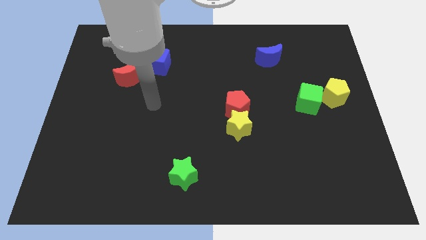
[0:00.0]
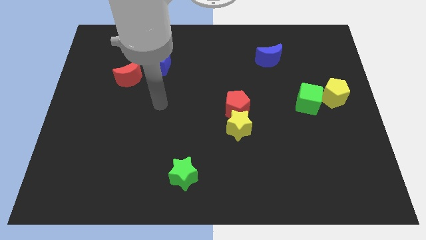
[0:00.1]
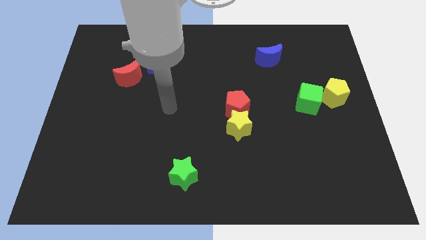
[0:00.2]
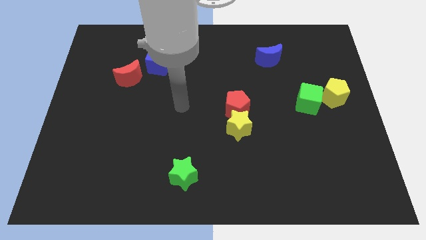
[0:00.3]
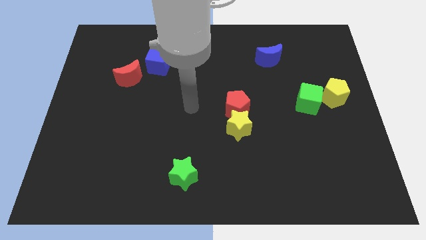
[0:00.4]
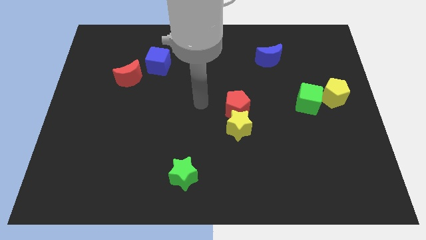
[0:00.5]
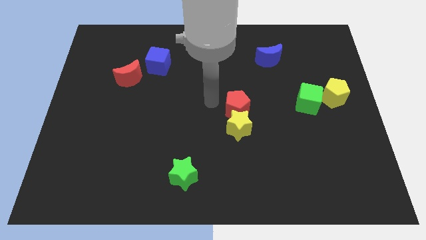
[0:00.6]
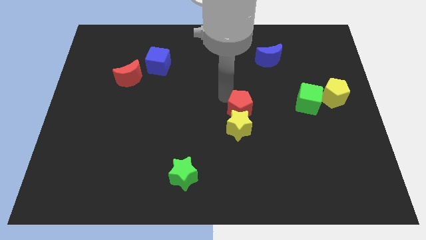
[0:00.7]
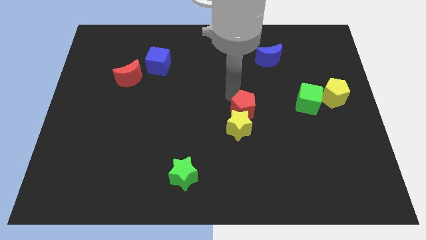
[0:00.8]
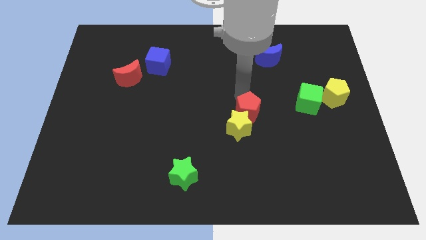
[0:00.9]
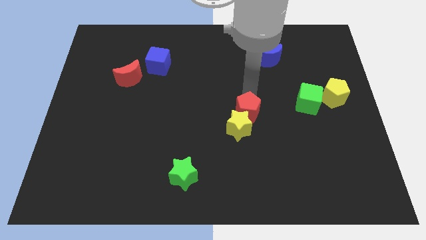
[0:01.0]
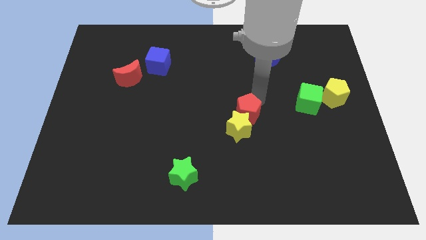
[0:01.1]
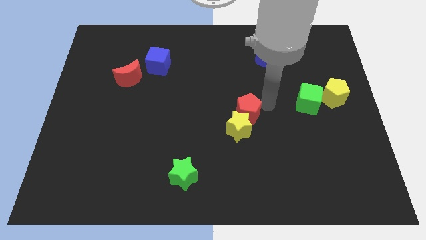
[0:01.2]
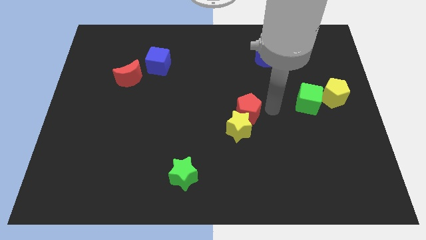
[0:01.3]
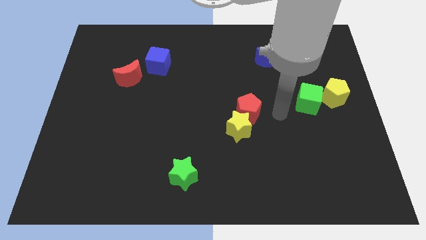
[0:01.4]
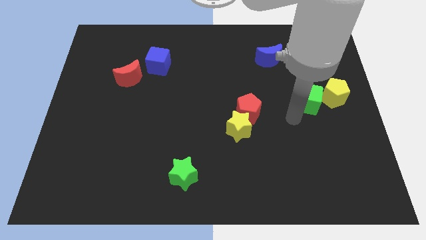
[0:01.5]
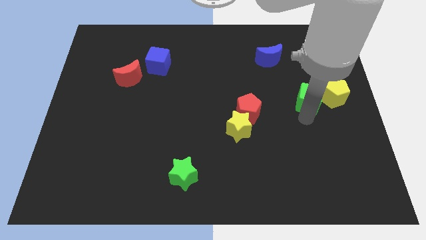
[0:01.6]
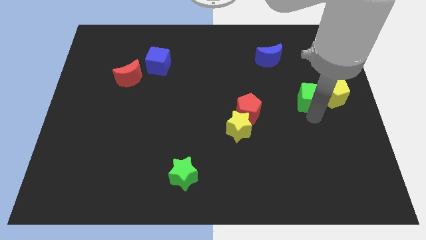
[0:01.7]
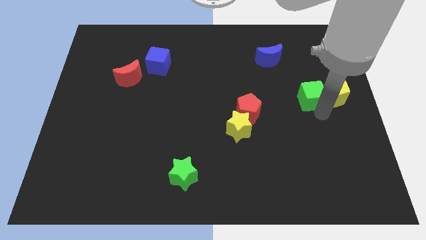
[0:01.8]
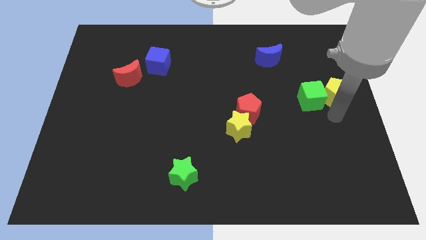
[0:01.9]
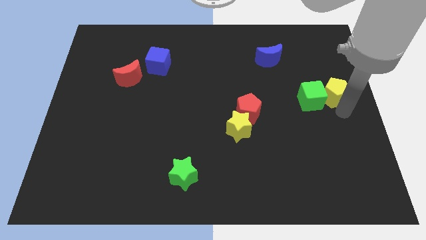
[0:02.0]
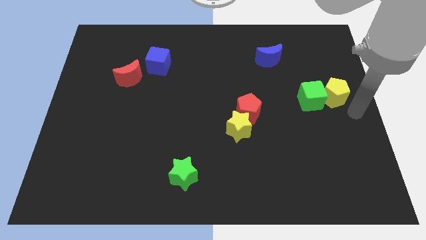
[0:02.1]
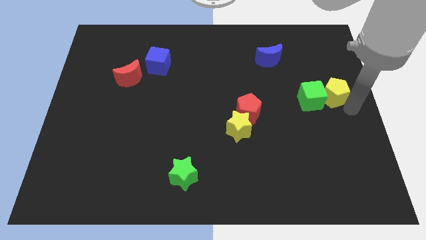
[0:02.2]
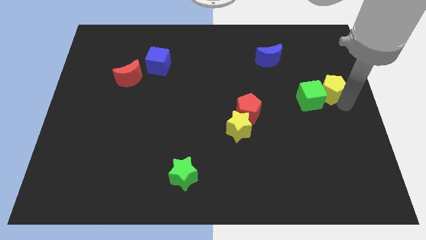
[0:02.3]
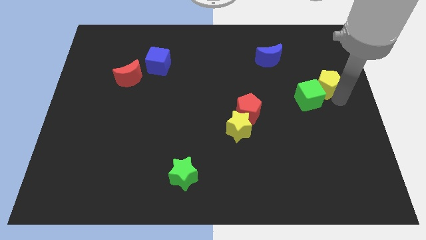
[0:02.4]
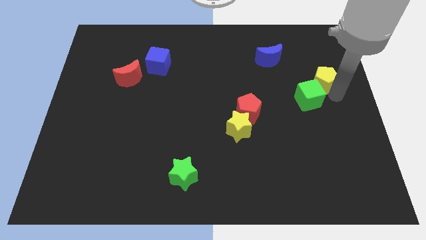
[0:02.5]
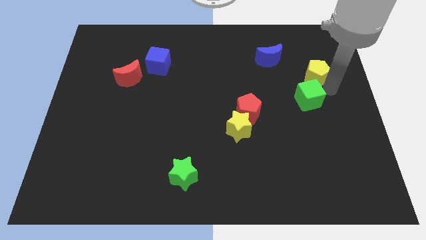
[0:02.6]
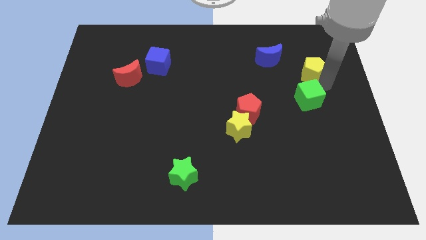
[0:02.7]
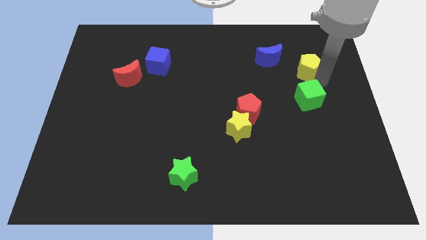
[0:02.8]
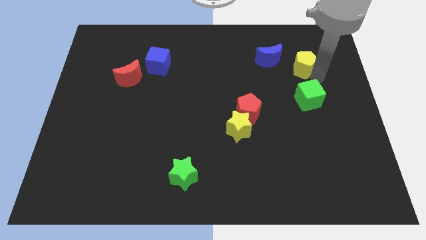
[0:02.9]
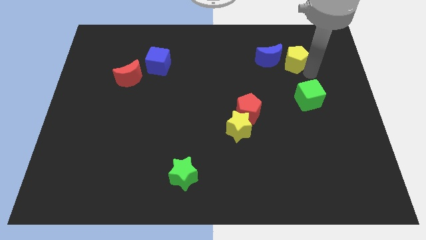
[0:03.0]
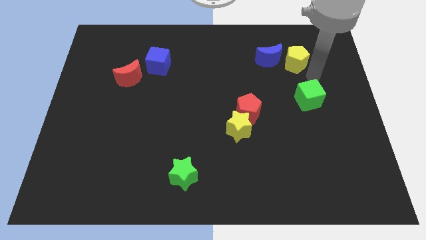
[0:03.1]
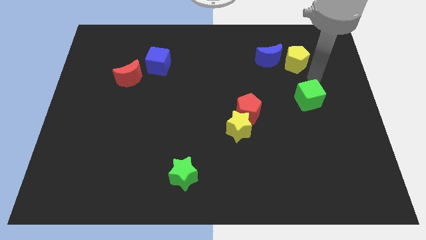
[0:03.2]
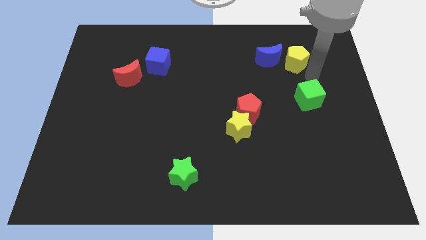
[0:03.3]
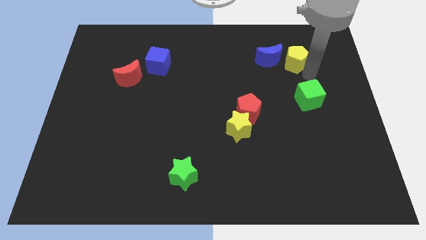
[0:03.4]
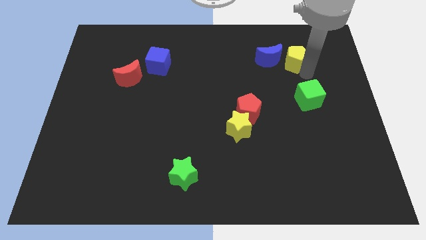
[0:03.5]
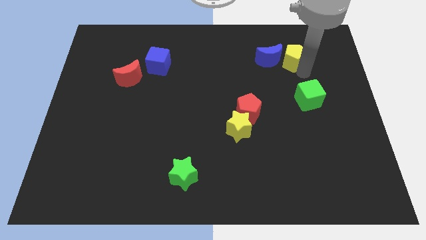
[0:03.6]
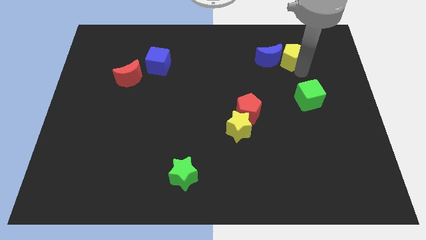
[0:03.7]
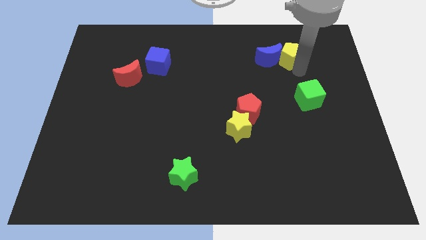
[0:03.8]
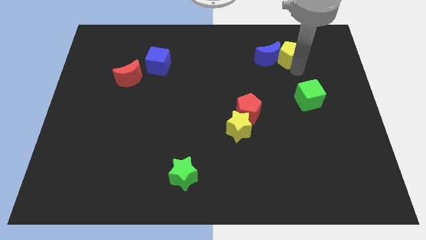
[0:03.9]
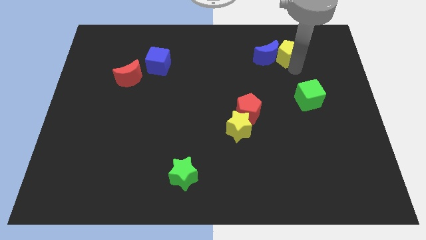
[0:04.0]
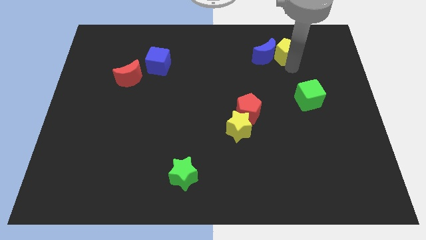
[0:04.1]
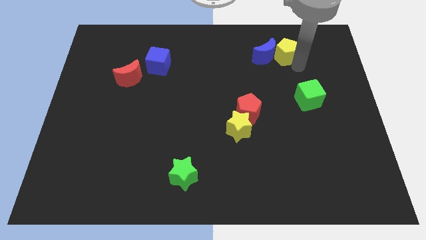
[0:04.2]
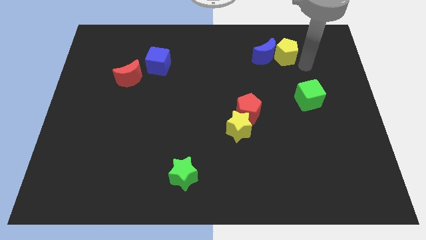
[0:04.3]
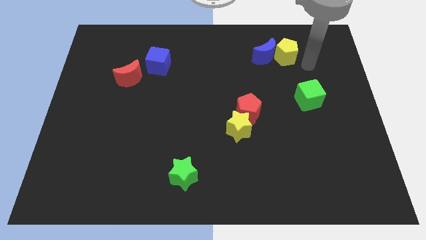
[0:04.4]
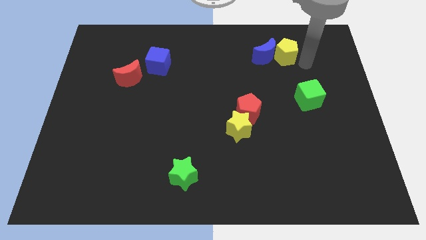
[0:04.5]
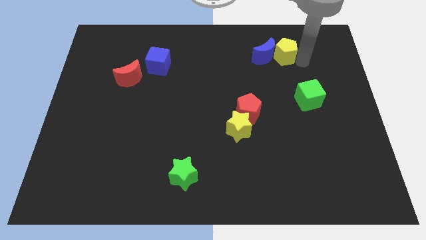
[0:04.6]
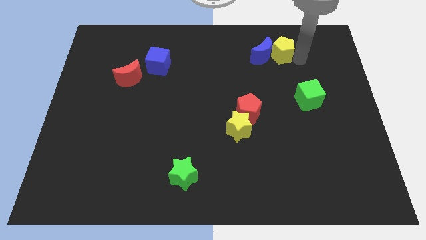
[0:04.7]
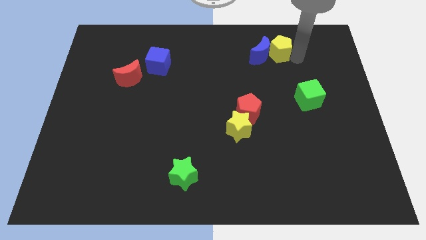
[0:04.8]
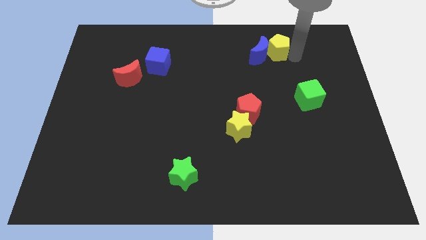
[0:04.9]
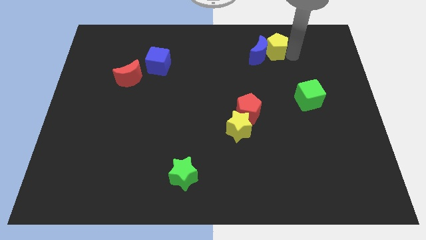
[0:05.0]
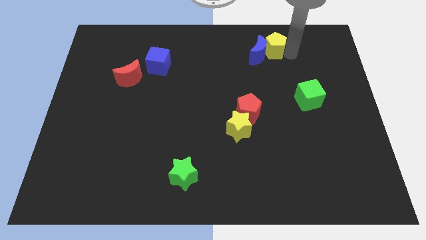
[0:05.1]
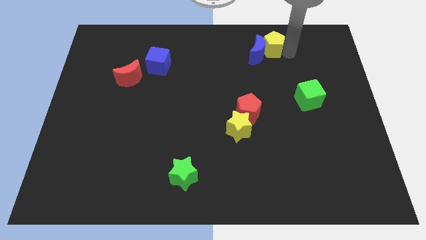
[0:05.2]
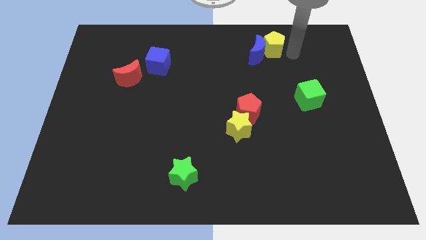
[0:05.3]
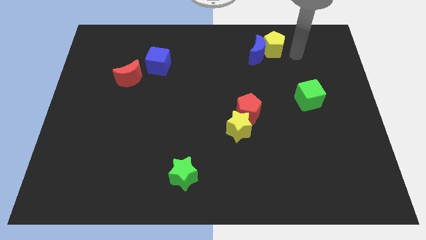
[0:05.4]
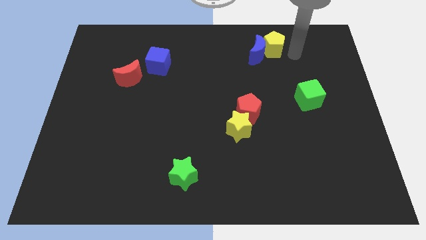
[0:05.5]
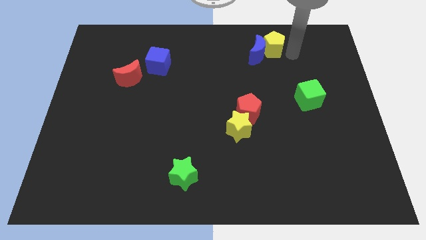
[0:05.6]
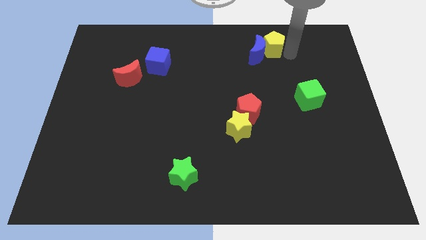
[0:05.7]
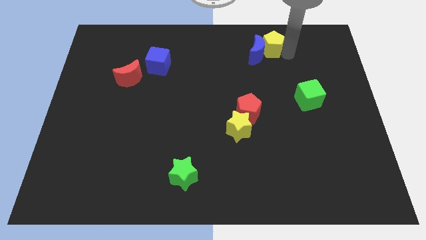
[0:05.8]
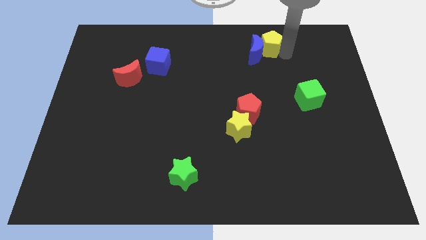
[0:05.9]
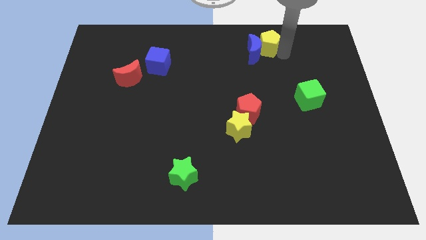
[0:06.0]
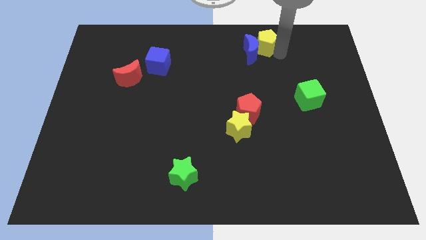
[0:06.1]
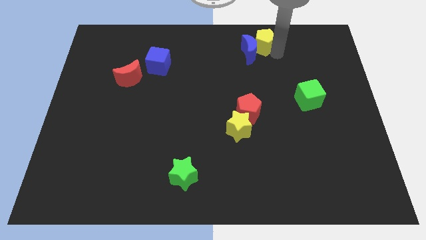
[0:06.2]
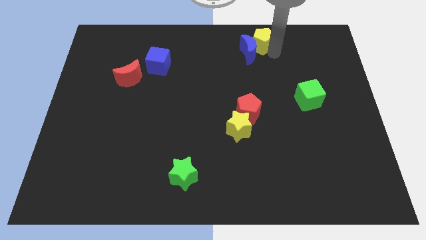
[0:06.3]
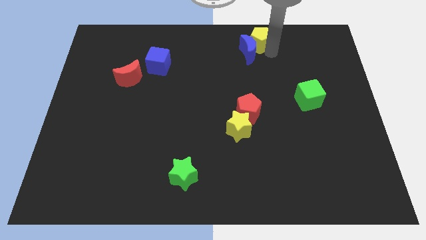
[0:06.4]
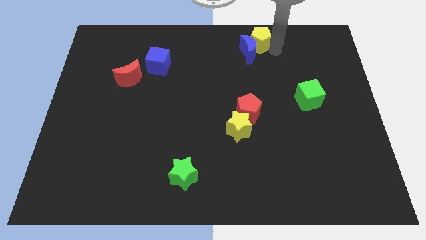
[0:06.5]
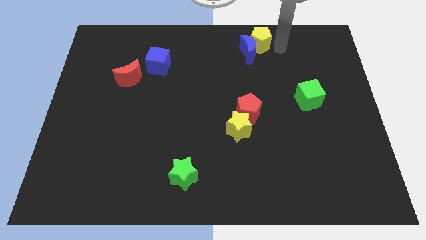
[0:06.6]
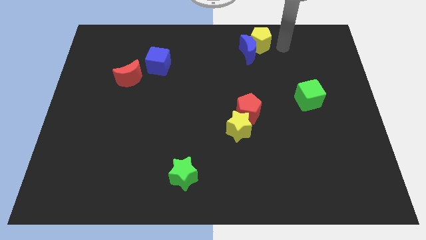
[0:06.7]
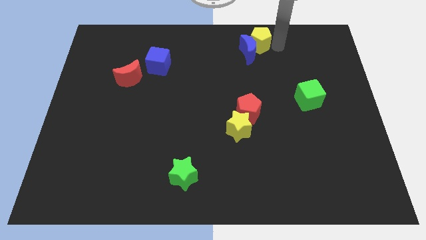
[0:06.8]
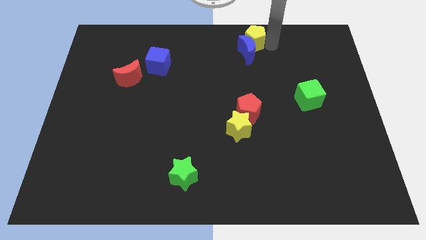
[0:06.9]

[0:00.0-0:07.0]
put the yellow pentagon to the top
